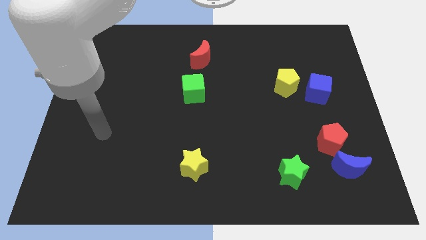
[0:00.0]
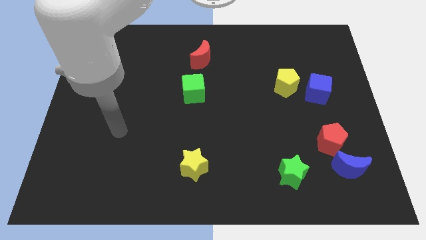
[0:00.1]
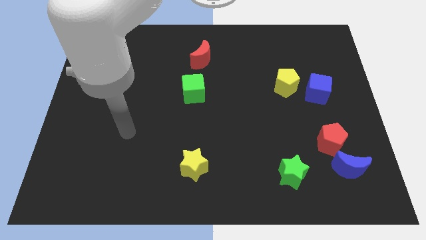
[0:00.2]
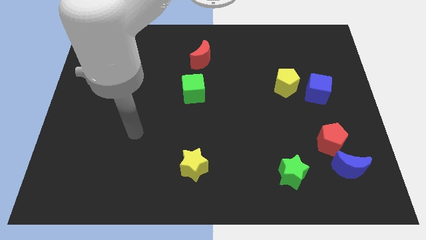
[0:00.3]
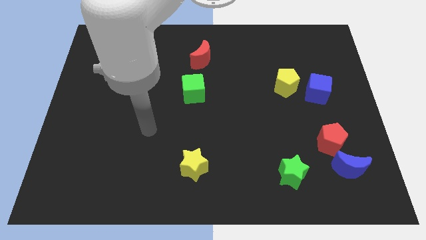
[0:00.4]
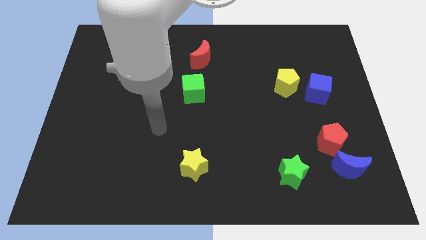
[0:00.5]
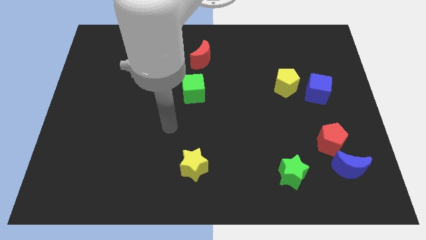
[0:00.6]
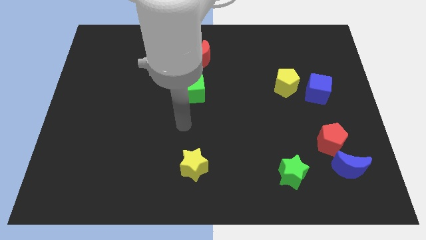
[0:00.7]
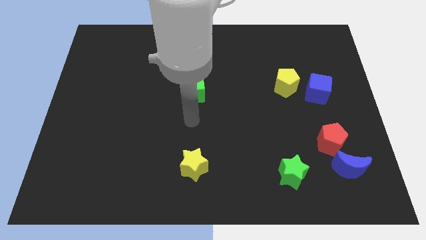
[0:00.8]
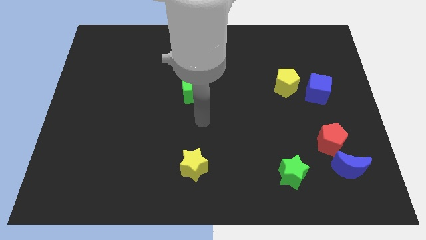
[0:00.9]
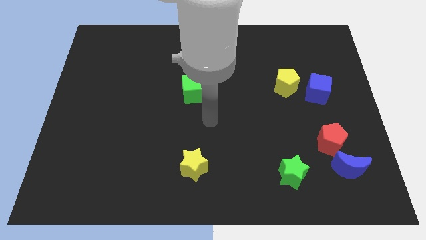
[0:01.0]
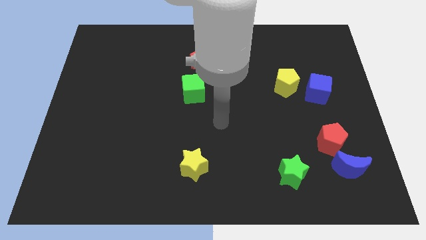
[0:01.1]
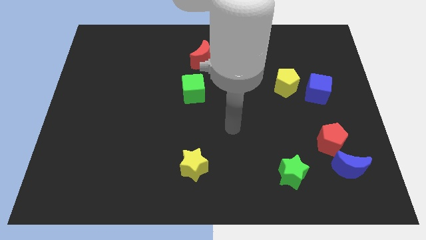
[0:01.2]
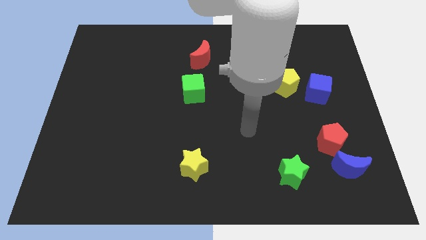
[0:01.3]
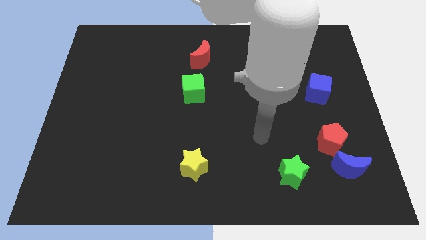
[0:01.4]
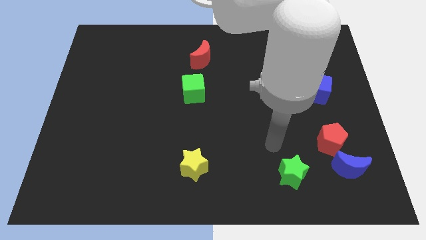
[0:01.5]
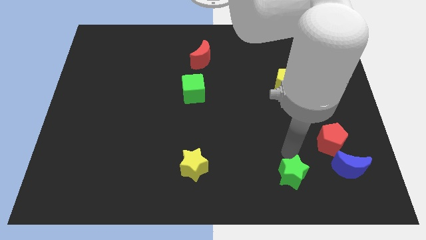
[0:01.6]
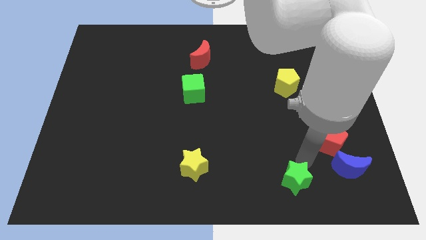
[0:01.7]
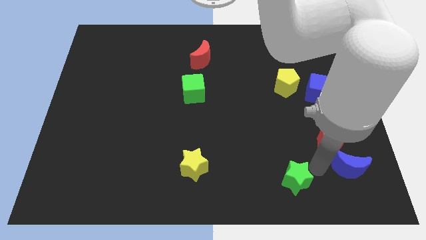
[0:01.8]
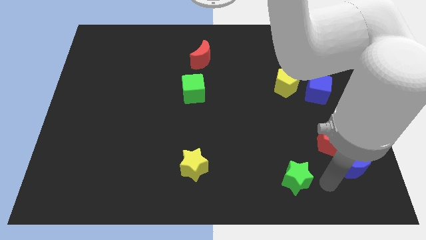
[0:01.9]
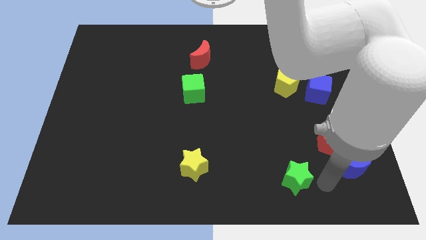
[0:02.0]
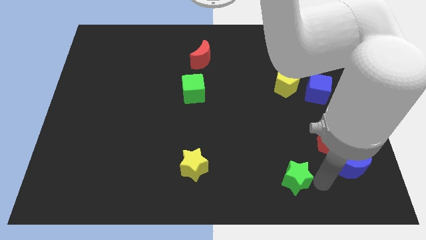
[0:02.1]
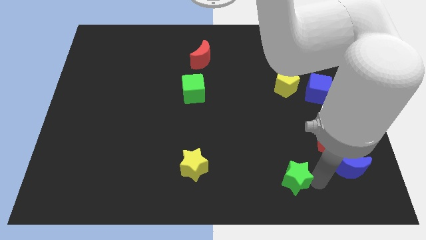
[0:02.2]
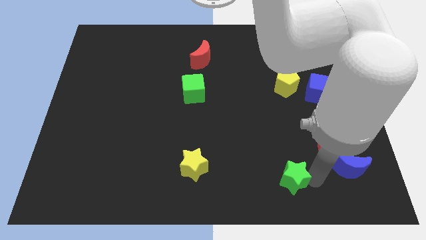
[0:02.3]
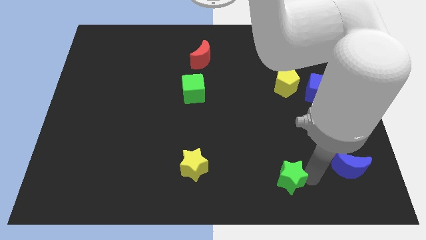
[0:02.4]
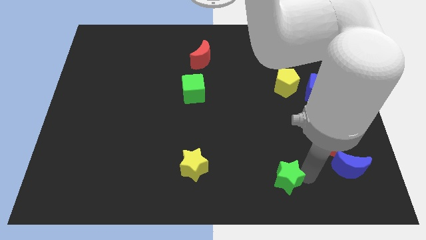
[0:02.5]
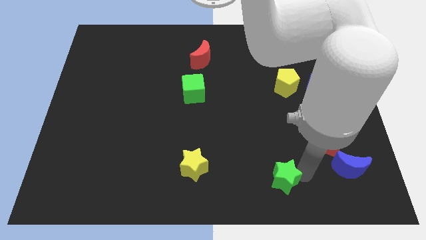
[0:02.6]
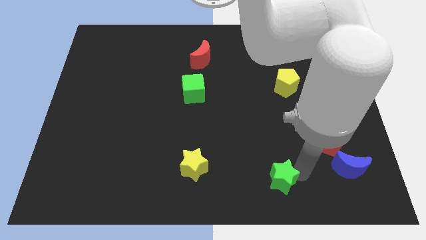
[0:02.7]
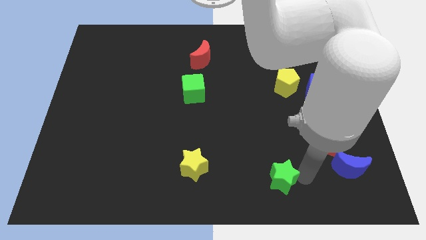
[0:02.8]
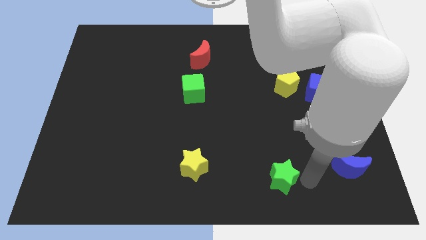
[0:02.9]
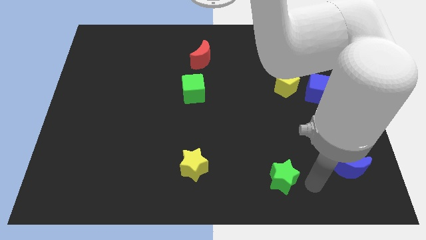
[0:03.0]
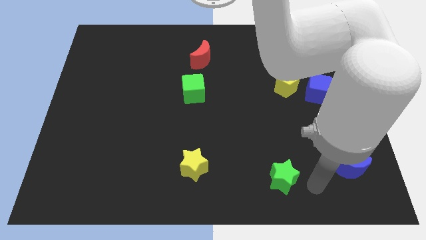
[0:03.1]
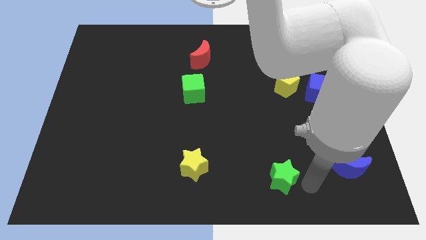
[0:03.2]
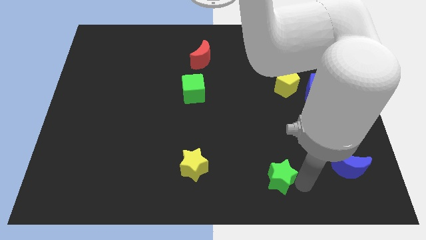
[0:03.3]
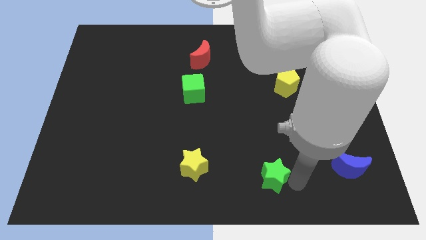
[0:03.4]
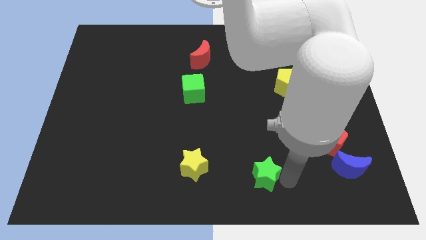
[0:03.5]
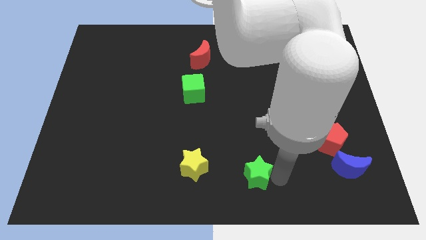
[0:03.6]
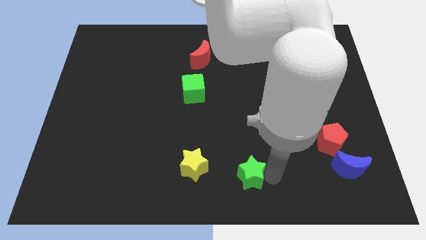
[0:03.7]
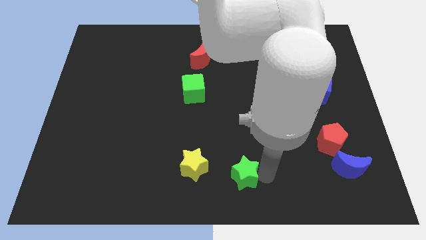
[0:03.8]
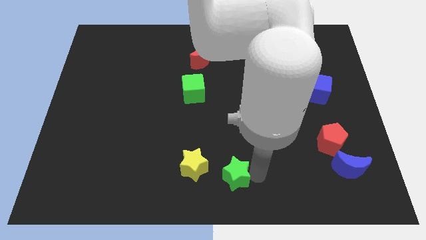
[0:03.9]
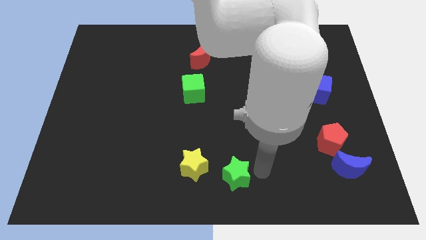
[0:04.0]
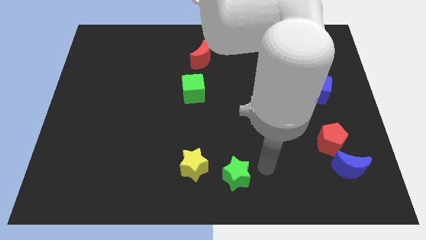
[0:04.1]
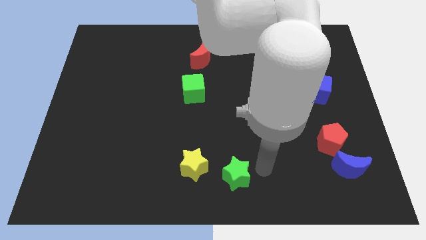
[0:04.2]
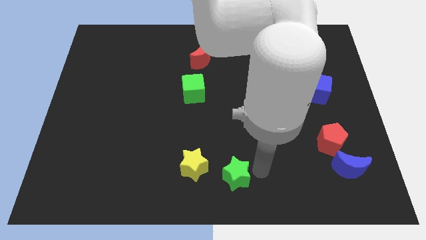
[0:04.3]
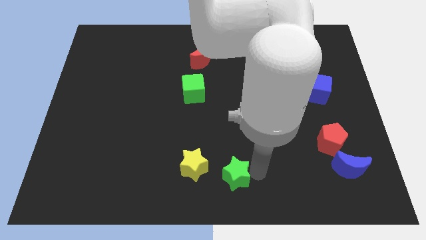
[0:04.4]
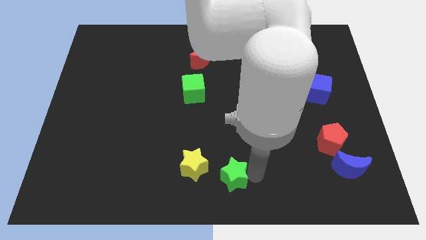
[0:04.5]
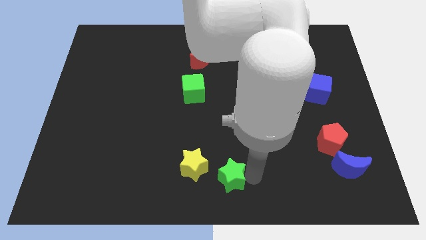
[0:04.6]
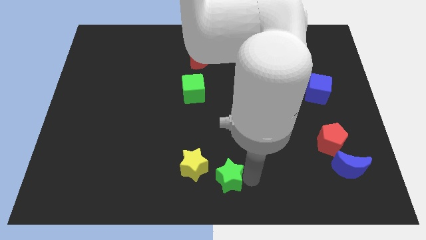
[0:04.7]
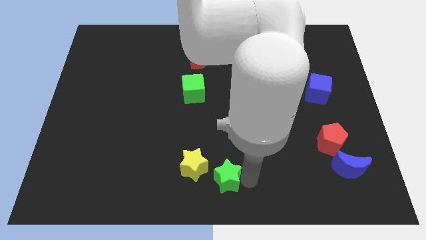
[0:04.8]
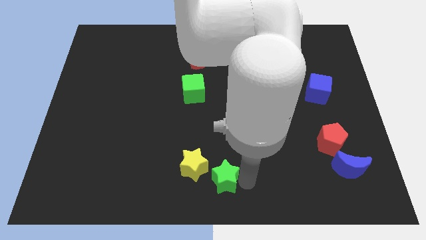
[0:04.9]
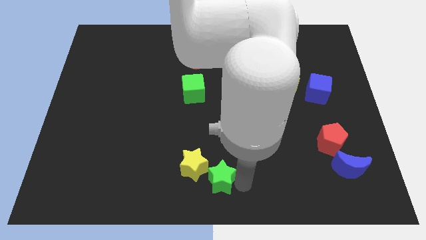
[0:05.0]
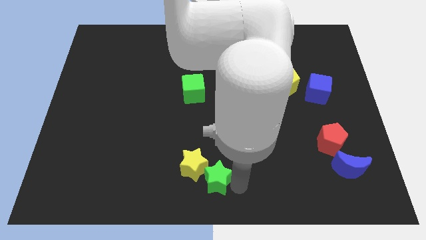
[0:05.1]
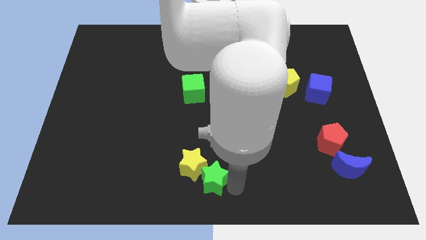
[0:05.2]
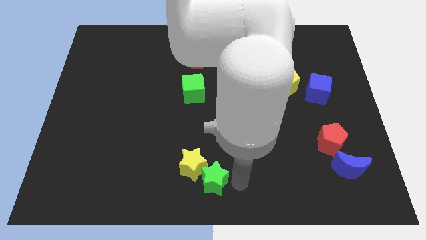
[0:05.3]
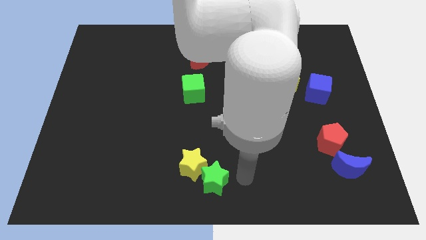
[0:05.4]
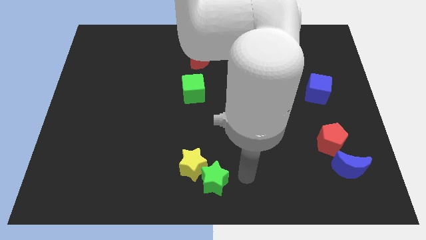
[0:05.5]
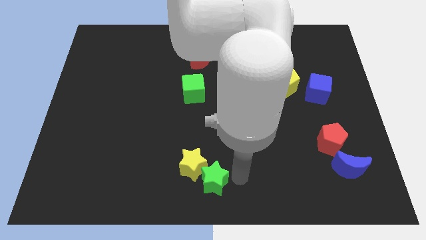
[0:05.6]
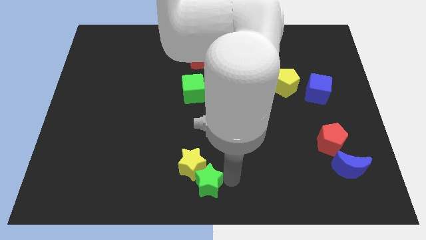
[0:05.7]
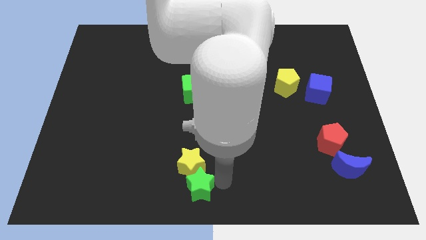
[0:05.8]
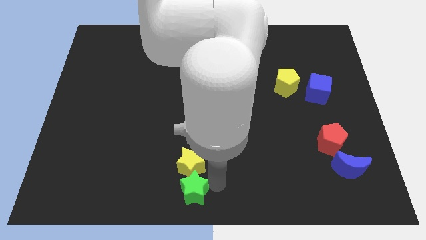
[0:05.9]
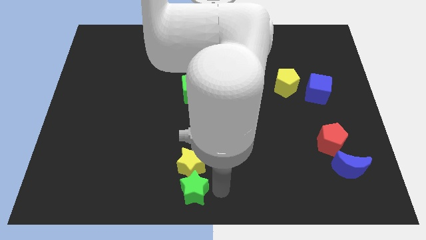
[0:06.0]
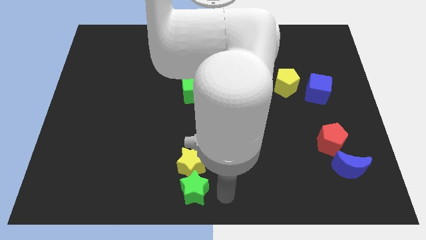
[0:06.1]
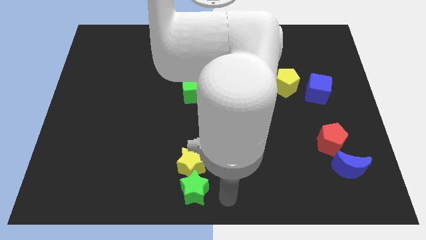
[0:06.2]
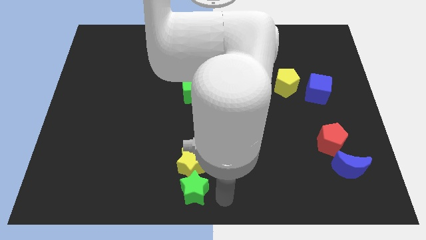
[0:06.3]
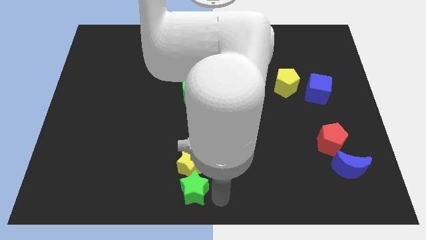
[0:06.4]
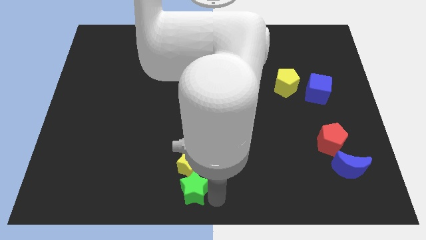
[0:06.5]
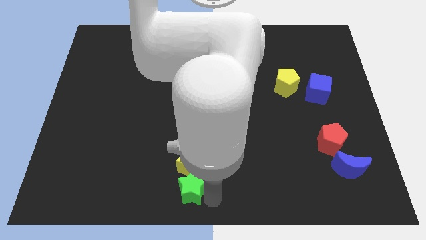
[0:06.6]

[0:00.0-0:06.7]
move the green star to the left

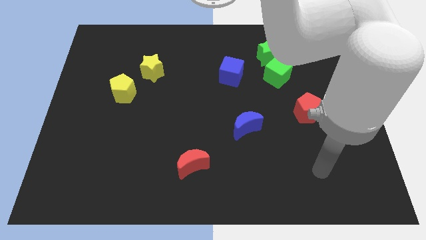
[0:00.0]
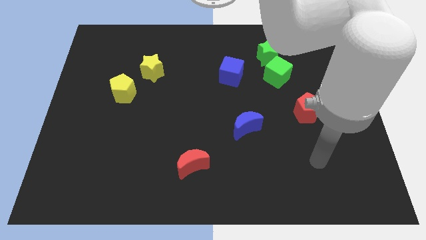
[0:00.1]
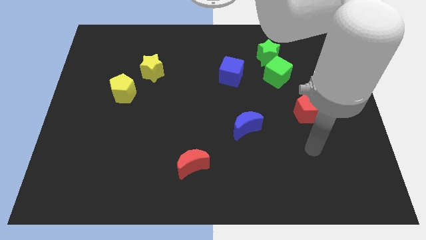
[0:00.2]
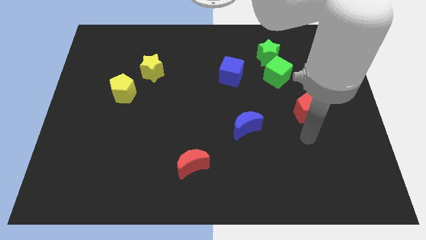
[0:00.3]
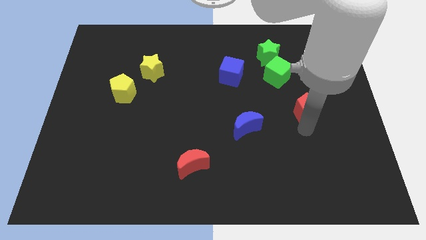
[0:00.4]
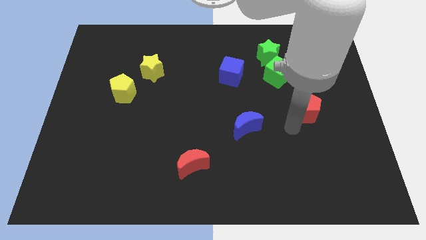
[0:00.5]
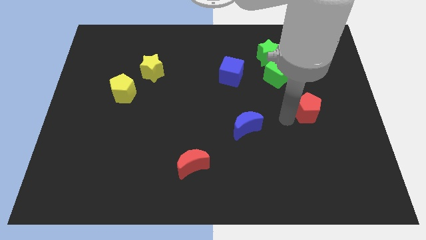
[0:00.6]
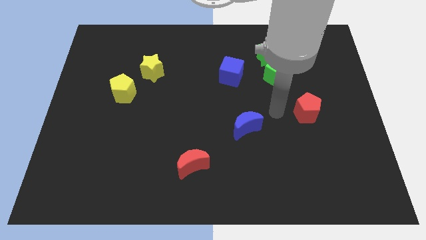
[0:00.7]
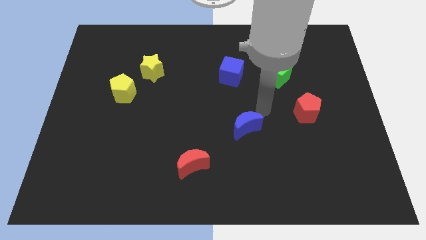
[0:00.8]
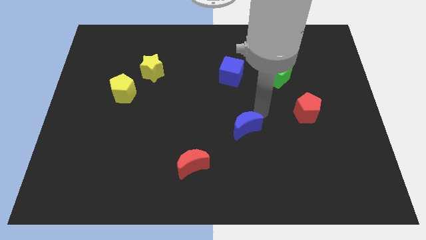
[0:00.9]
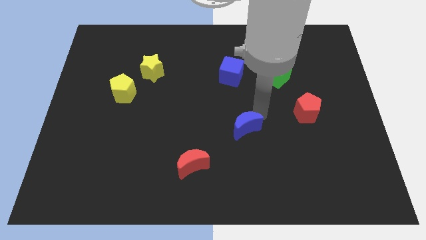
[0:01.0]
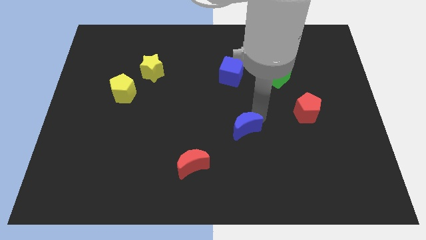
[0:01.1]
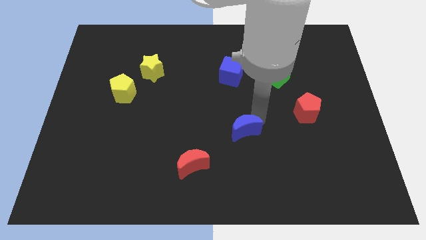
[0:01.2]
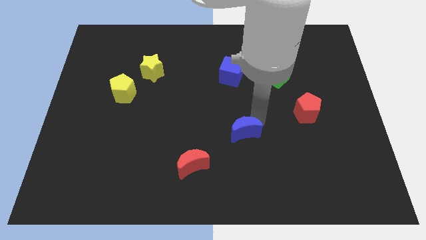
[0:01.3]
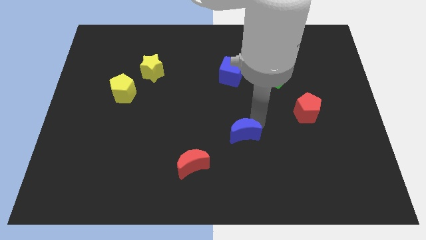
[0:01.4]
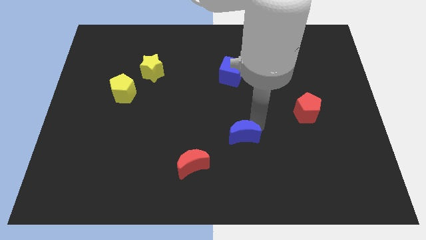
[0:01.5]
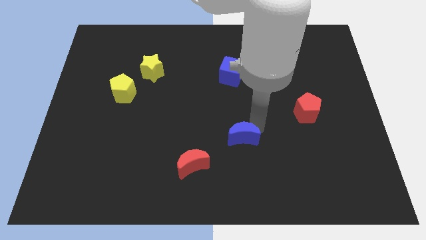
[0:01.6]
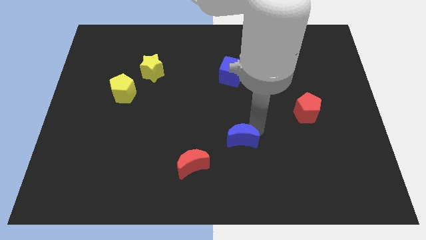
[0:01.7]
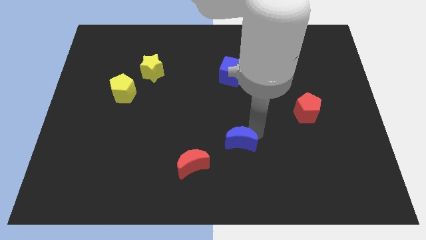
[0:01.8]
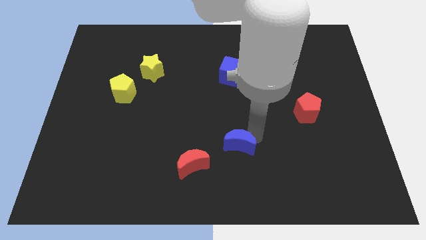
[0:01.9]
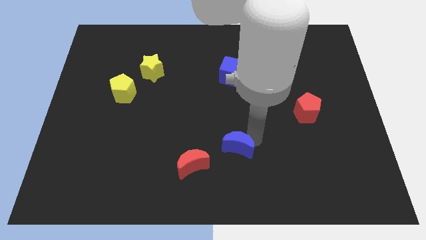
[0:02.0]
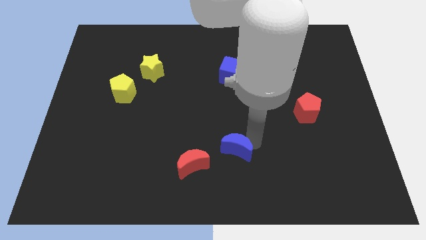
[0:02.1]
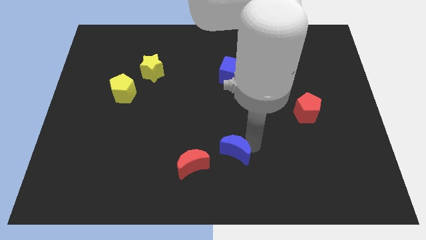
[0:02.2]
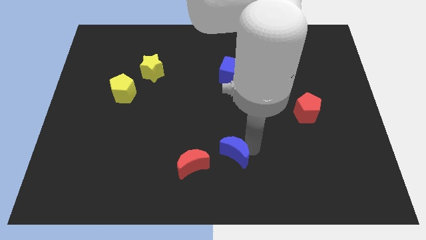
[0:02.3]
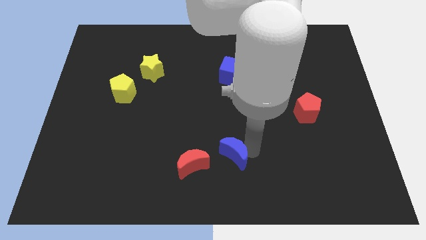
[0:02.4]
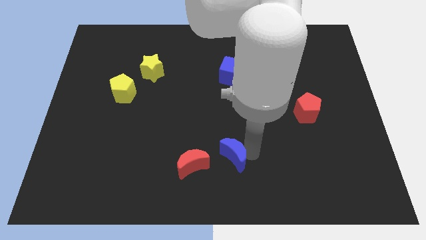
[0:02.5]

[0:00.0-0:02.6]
push the blue moon slightly downwards and to the left
